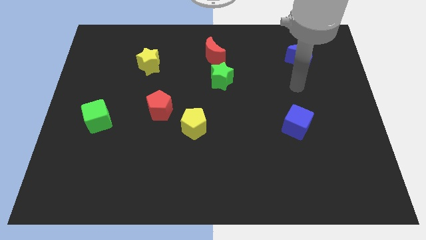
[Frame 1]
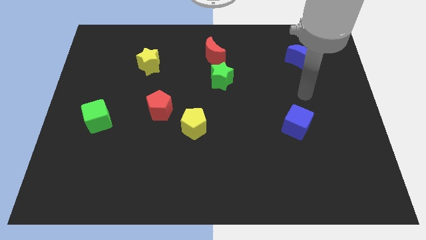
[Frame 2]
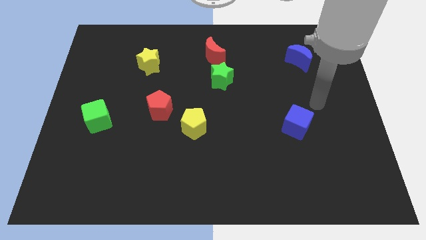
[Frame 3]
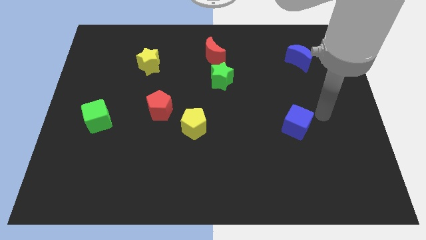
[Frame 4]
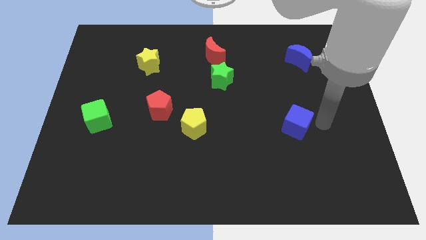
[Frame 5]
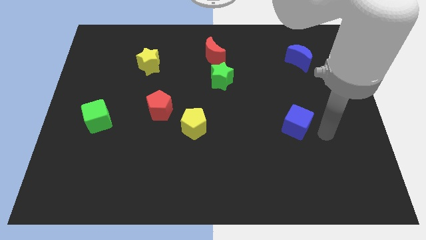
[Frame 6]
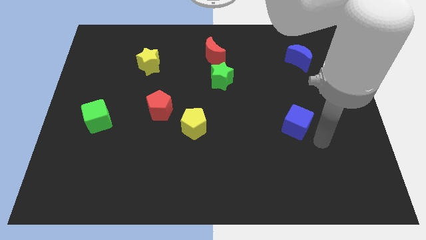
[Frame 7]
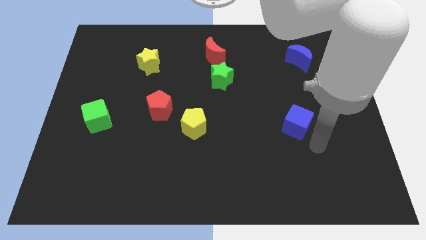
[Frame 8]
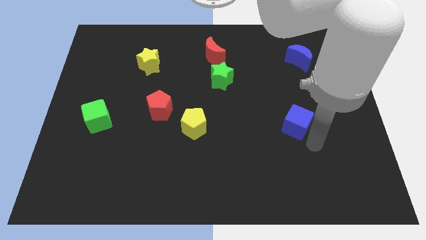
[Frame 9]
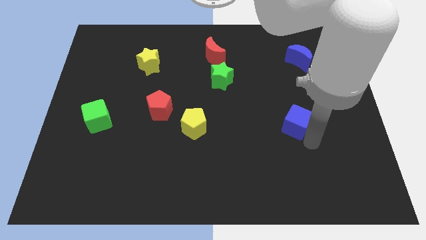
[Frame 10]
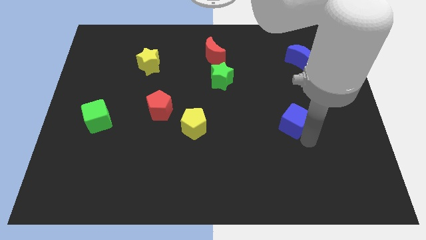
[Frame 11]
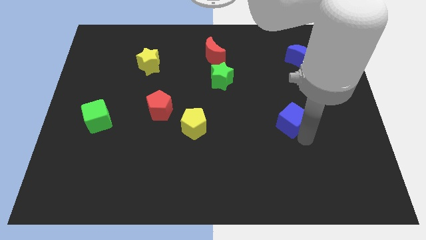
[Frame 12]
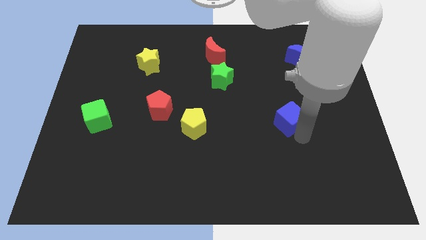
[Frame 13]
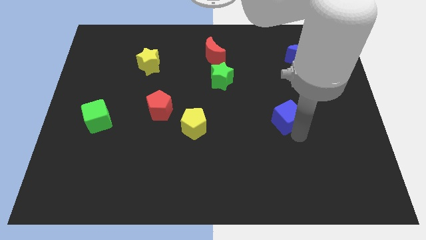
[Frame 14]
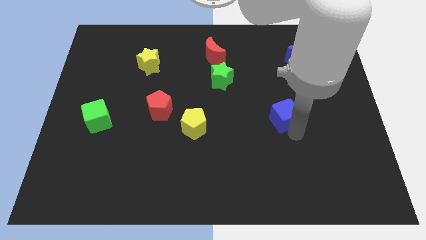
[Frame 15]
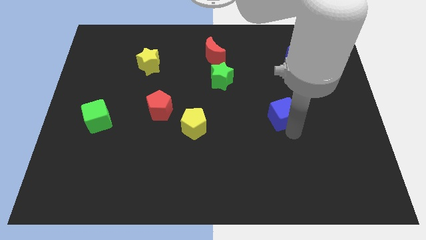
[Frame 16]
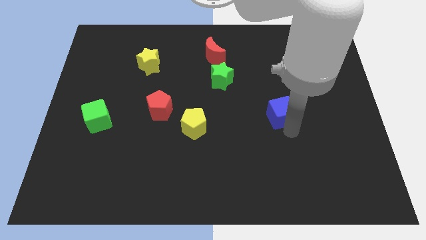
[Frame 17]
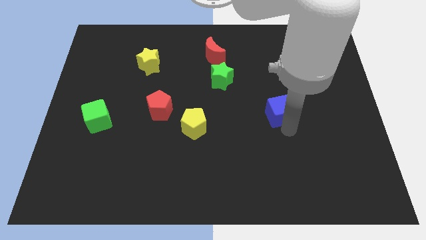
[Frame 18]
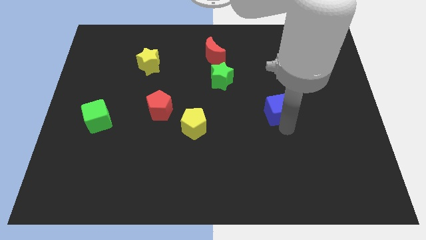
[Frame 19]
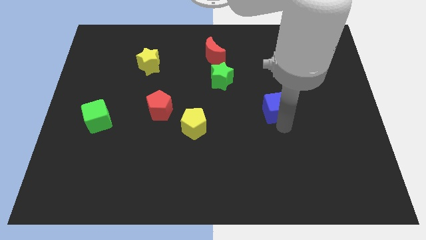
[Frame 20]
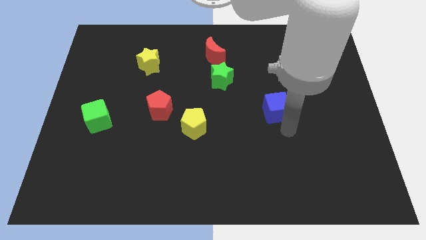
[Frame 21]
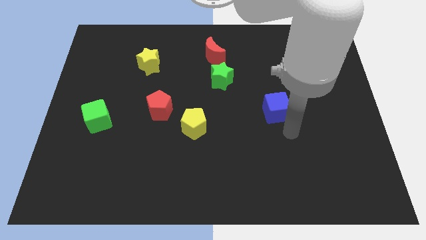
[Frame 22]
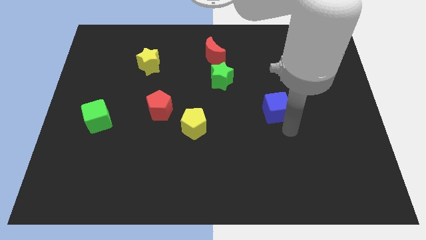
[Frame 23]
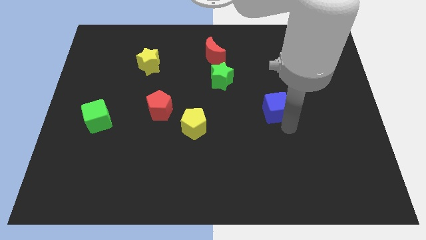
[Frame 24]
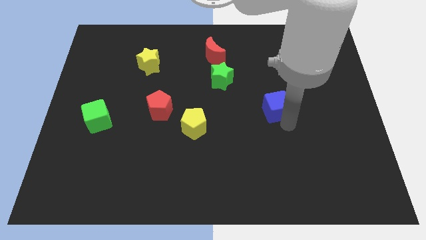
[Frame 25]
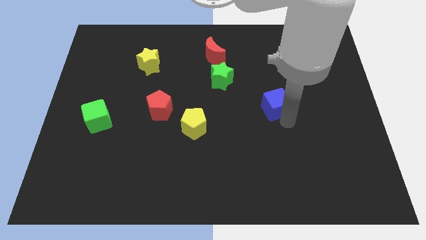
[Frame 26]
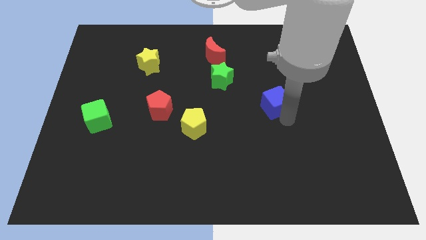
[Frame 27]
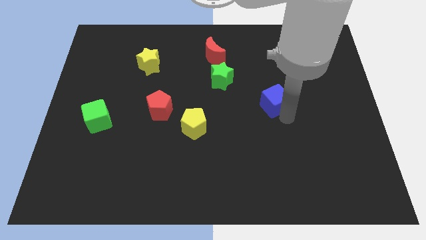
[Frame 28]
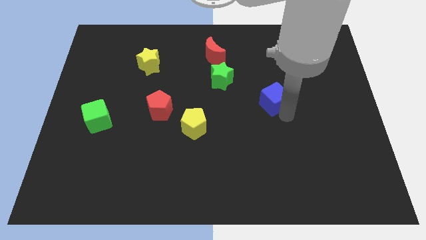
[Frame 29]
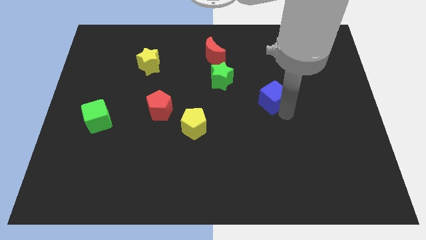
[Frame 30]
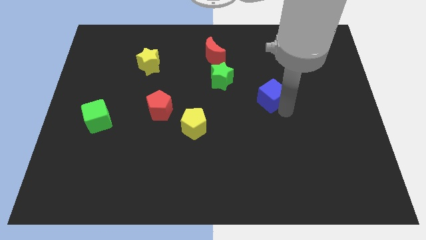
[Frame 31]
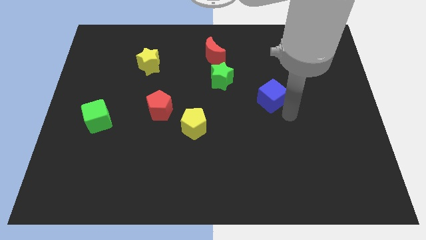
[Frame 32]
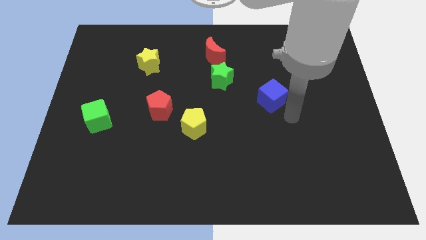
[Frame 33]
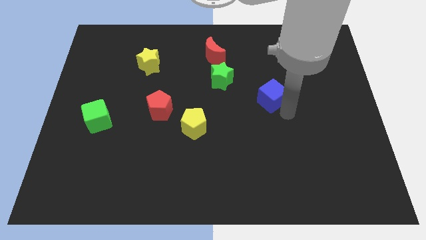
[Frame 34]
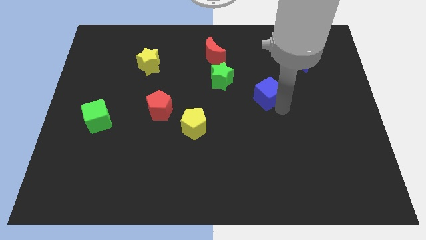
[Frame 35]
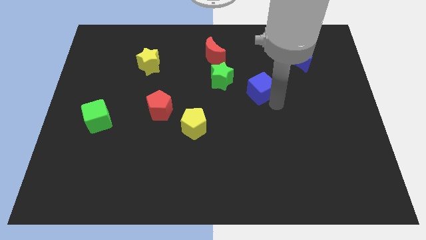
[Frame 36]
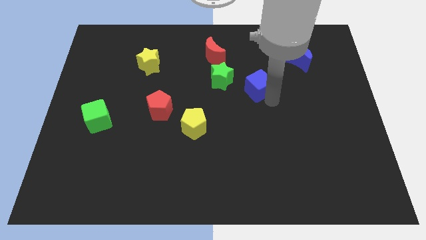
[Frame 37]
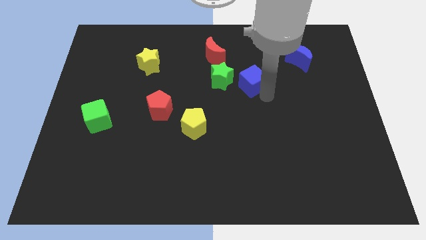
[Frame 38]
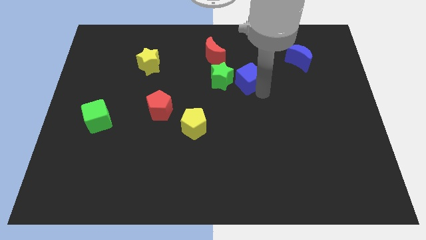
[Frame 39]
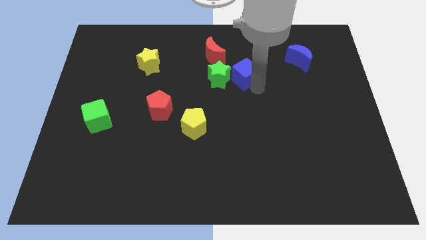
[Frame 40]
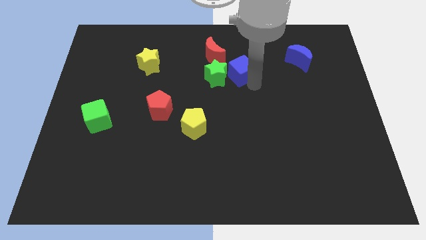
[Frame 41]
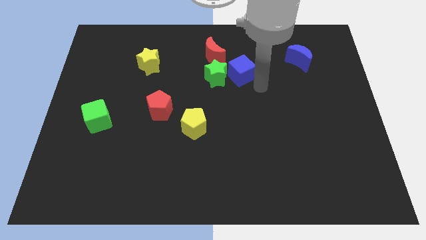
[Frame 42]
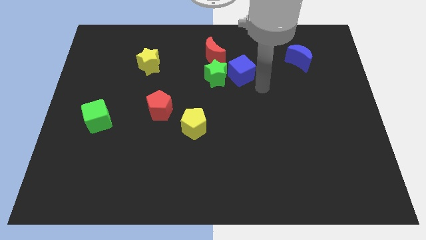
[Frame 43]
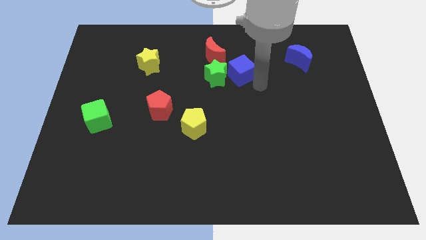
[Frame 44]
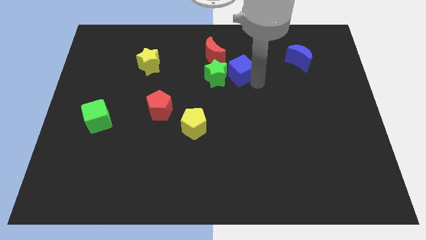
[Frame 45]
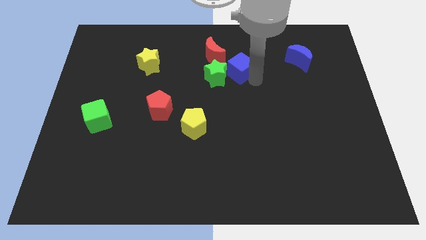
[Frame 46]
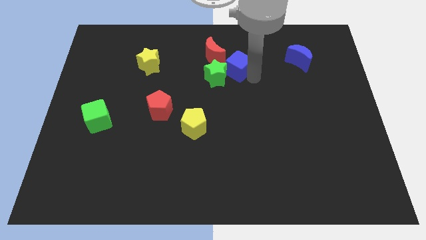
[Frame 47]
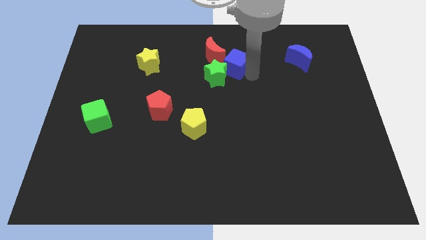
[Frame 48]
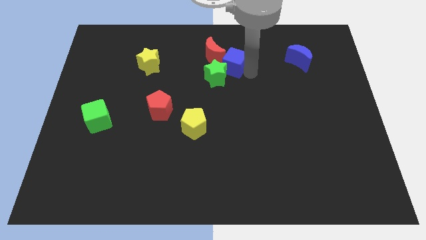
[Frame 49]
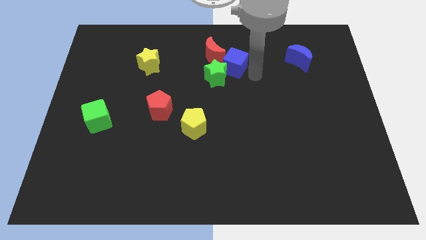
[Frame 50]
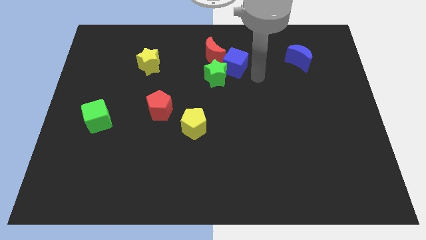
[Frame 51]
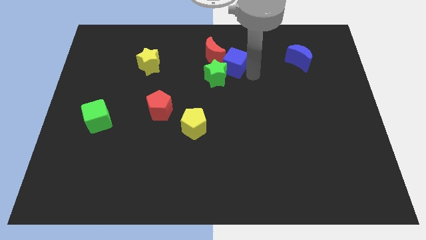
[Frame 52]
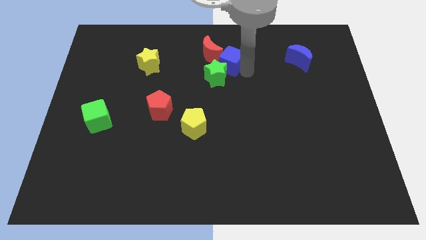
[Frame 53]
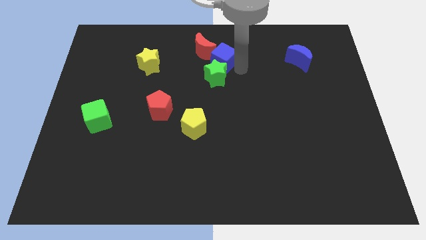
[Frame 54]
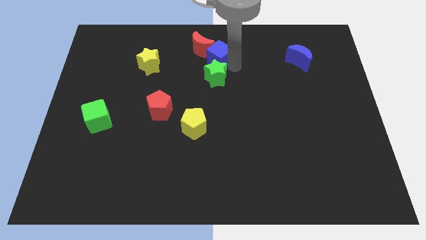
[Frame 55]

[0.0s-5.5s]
push the blue cube towards the red moon

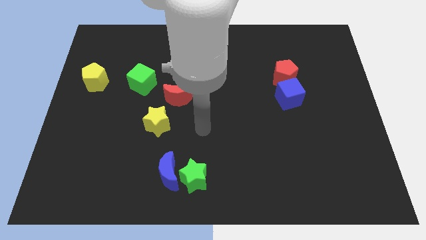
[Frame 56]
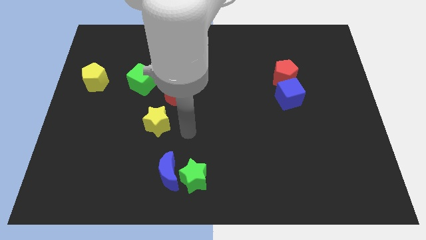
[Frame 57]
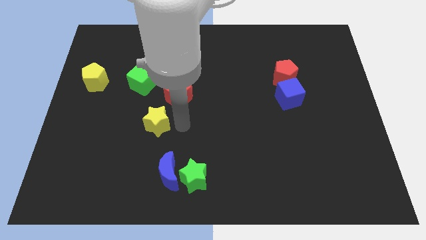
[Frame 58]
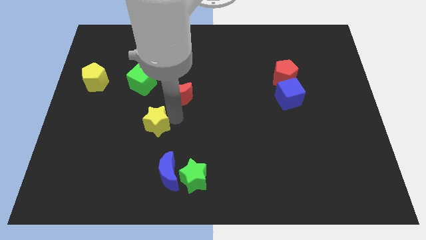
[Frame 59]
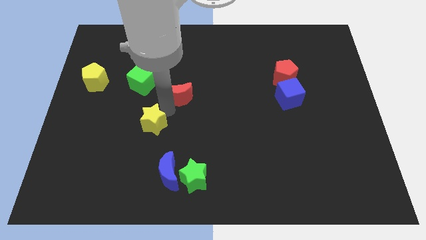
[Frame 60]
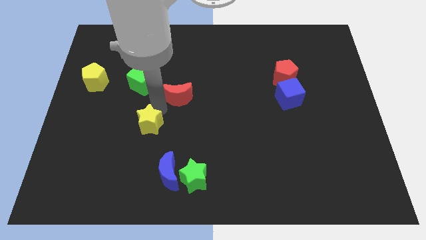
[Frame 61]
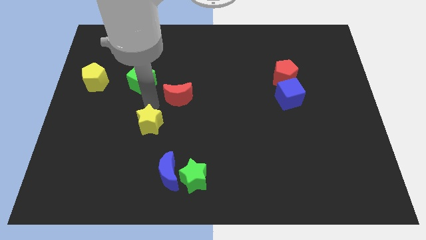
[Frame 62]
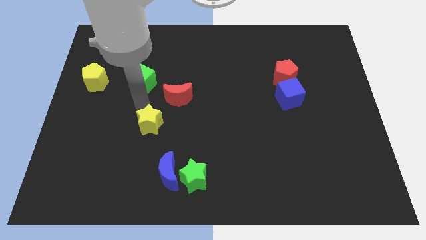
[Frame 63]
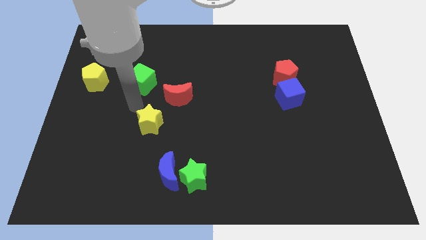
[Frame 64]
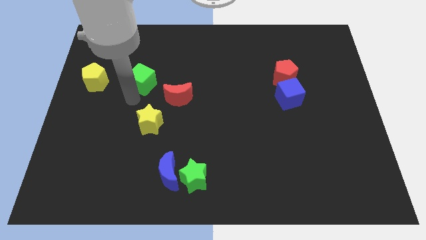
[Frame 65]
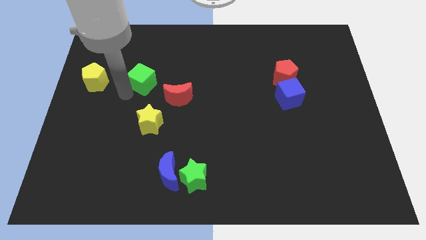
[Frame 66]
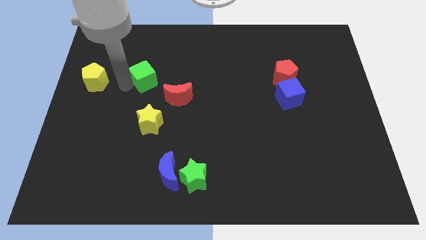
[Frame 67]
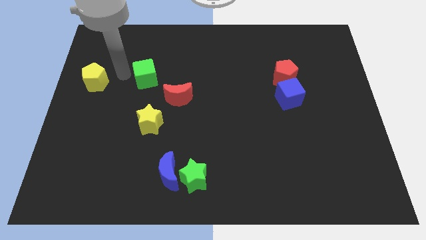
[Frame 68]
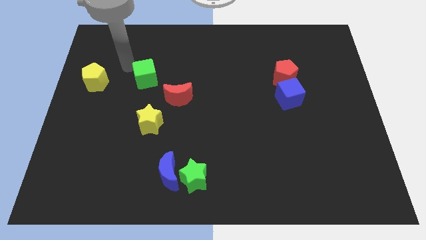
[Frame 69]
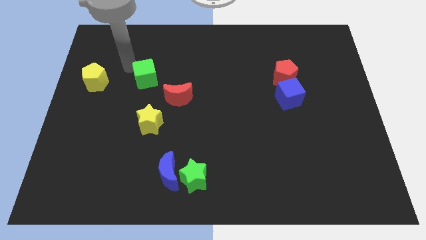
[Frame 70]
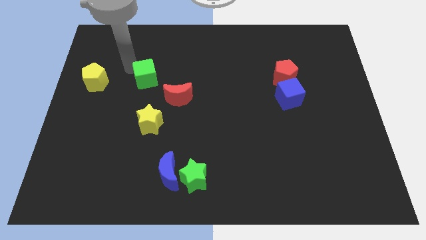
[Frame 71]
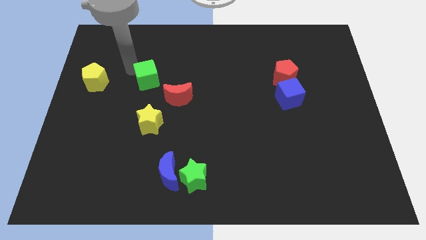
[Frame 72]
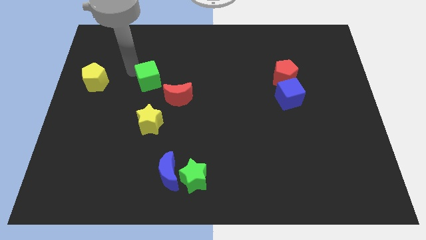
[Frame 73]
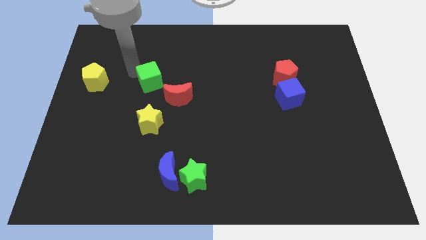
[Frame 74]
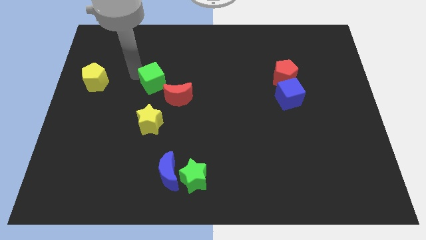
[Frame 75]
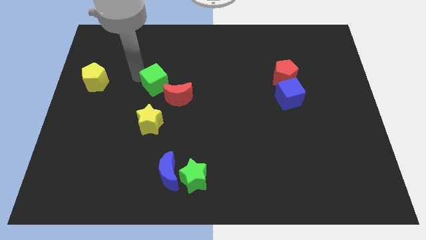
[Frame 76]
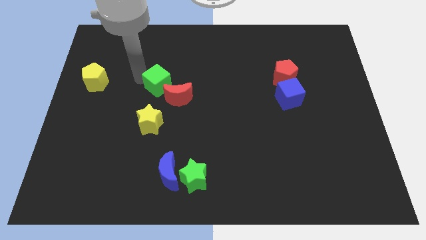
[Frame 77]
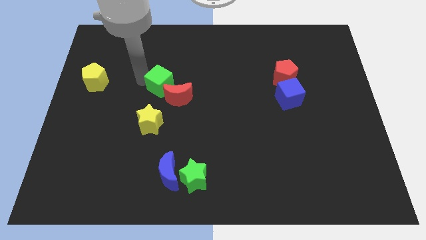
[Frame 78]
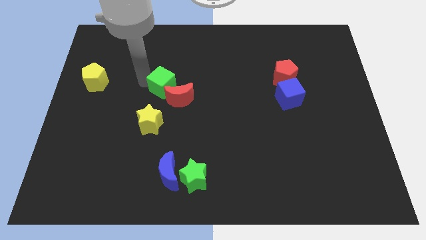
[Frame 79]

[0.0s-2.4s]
move the green cube close to the red moon
